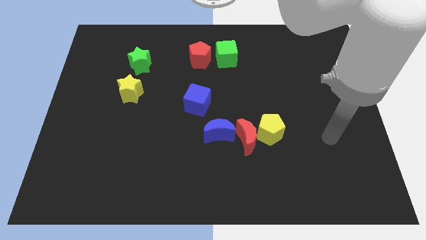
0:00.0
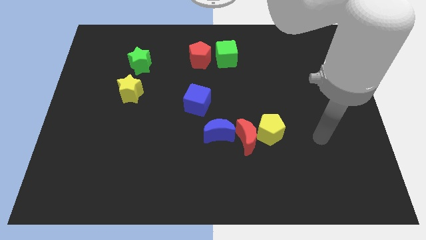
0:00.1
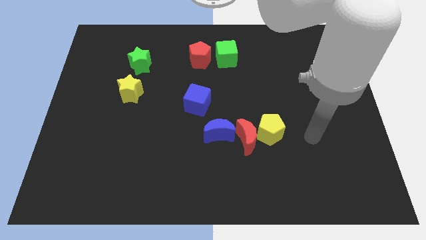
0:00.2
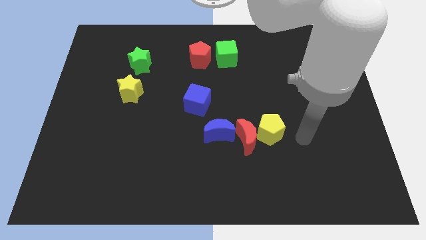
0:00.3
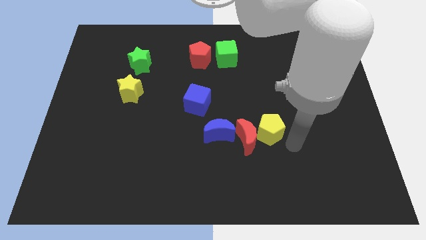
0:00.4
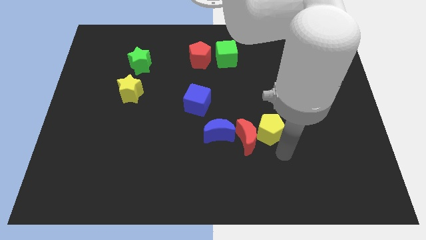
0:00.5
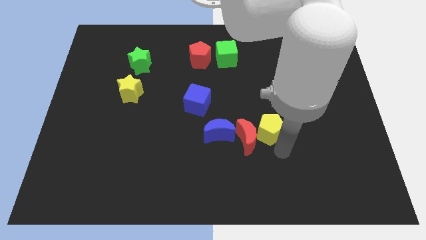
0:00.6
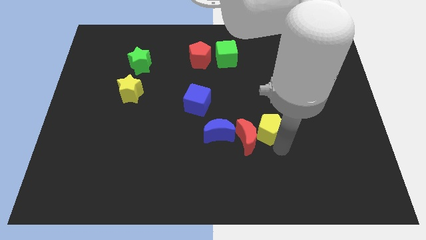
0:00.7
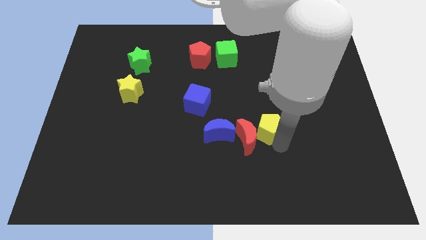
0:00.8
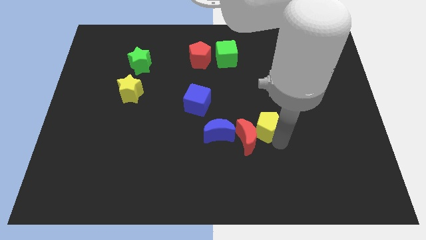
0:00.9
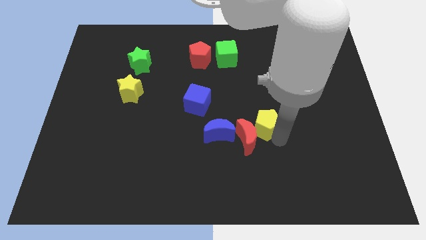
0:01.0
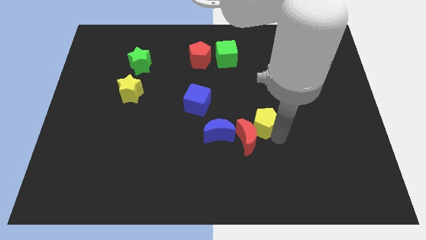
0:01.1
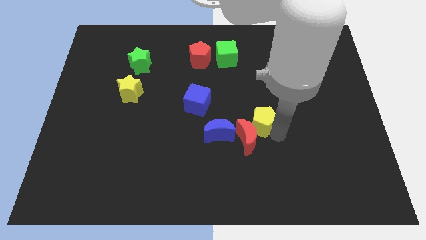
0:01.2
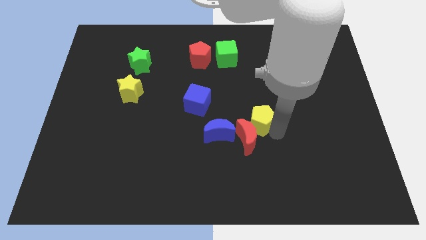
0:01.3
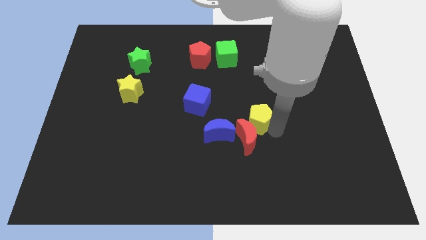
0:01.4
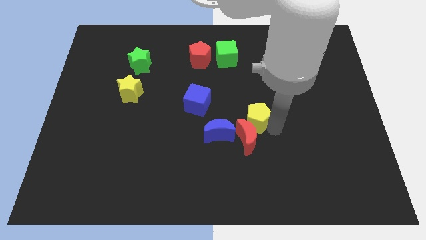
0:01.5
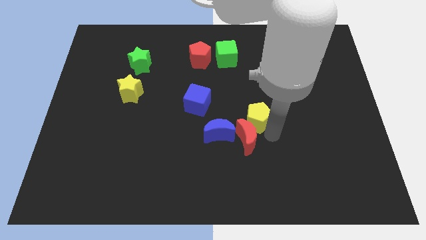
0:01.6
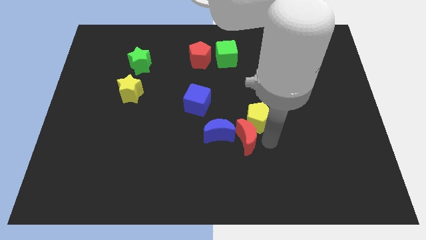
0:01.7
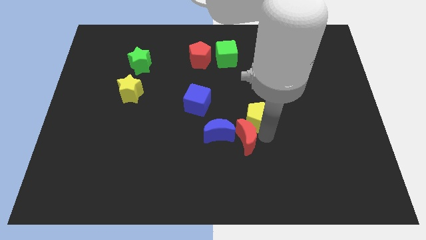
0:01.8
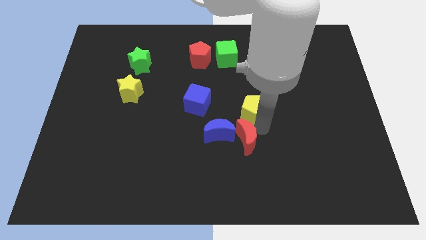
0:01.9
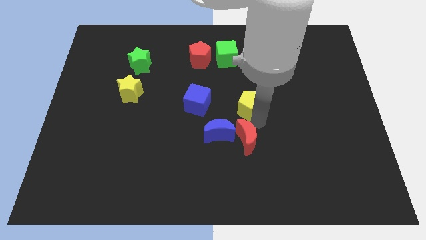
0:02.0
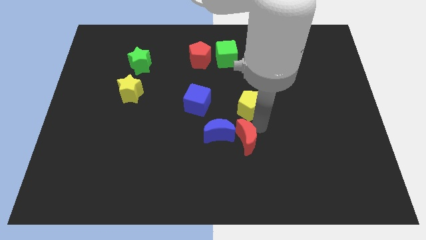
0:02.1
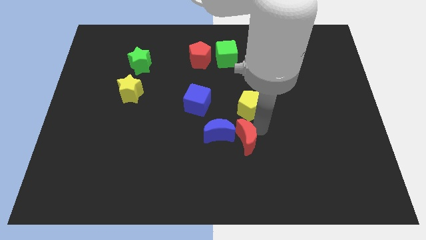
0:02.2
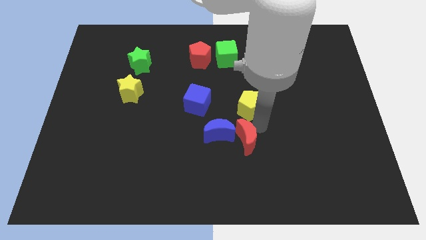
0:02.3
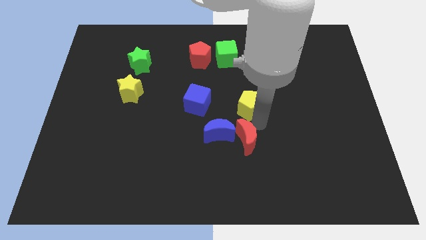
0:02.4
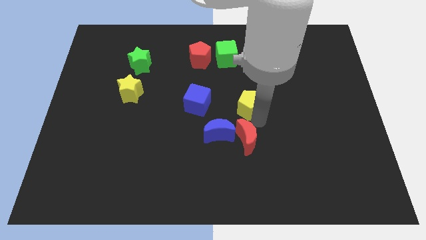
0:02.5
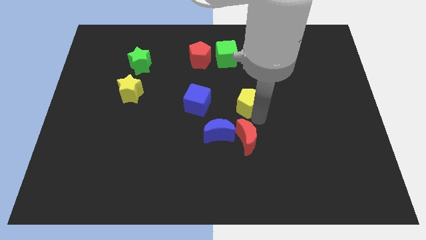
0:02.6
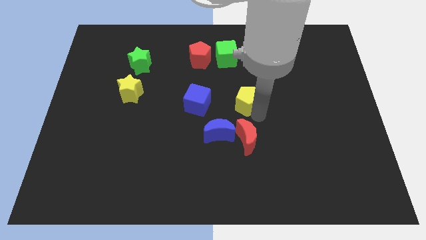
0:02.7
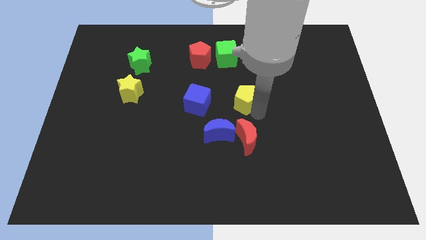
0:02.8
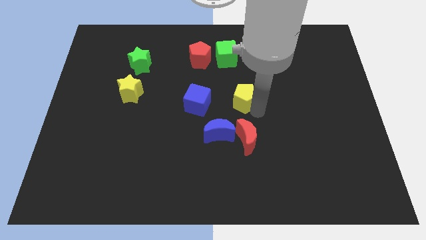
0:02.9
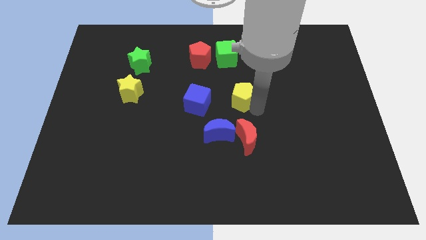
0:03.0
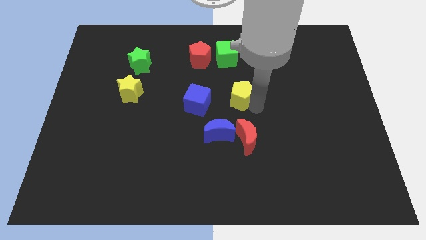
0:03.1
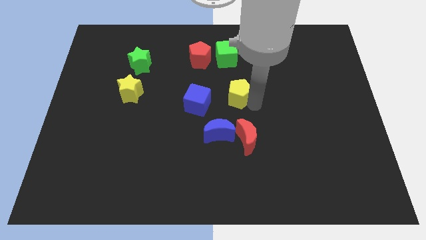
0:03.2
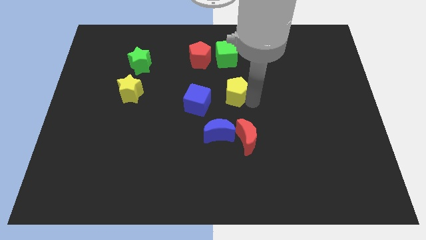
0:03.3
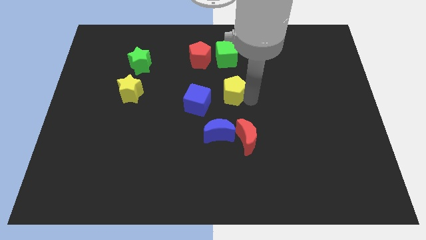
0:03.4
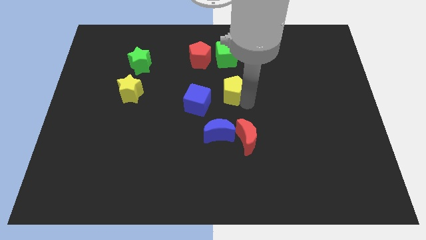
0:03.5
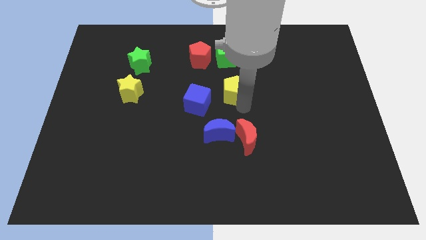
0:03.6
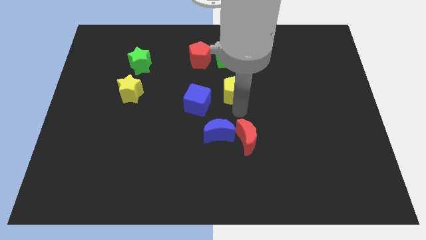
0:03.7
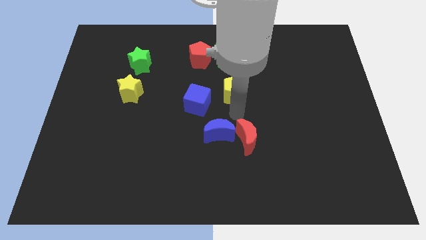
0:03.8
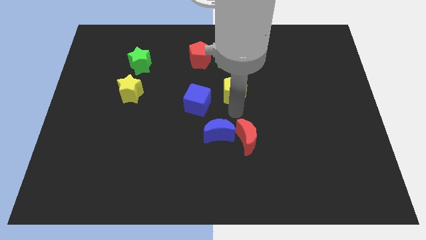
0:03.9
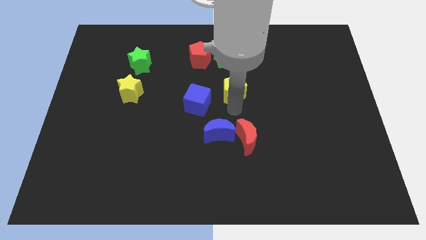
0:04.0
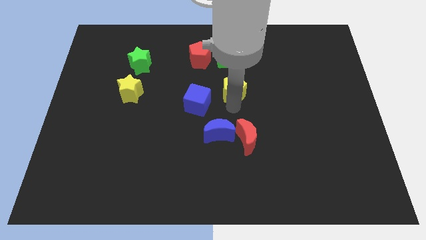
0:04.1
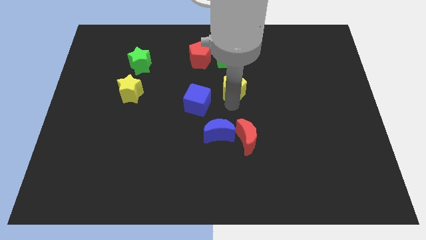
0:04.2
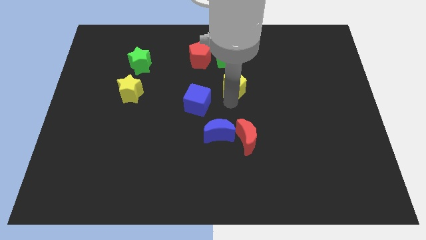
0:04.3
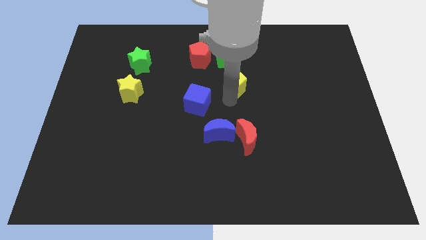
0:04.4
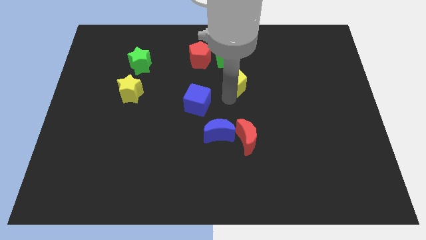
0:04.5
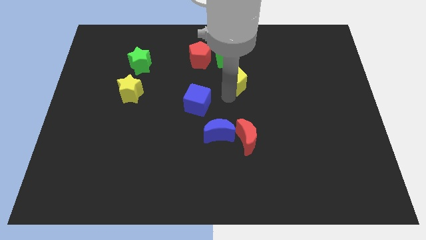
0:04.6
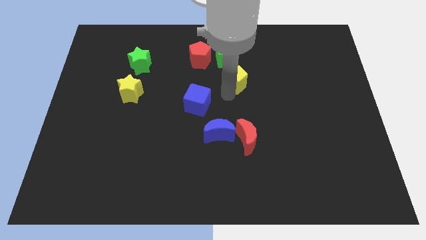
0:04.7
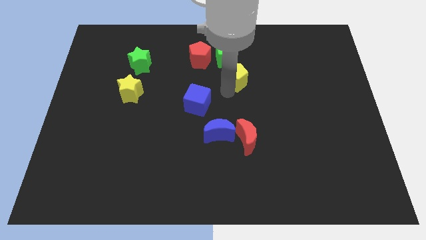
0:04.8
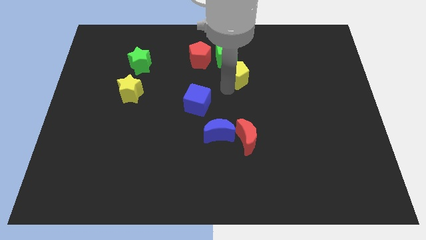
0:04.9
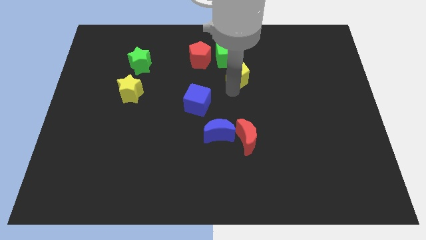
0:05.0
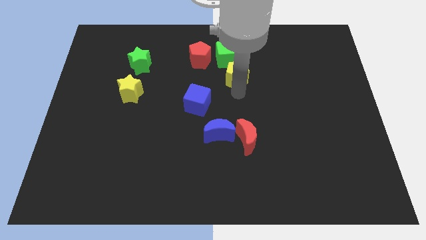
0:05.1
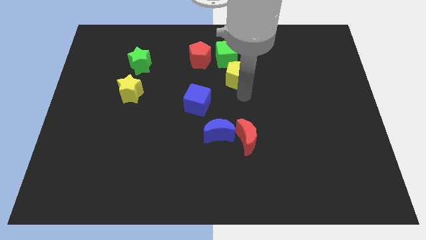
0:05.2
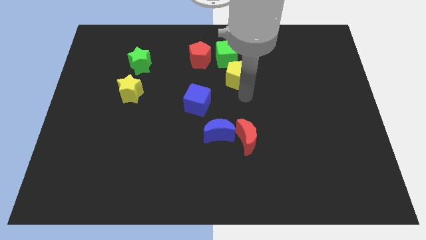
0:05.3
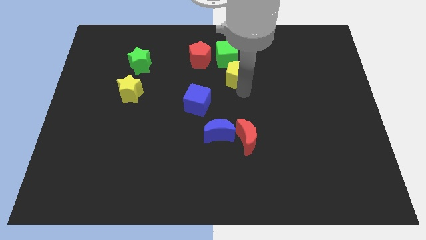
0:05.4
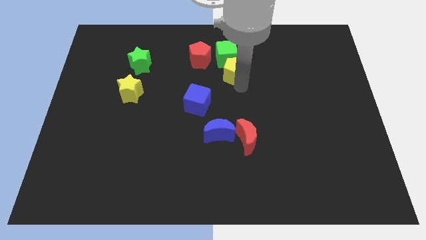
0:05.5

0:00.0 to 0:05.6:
push the yellow pentagon close to the green cube

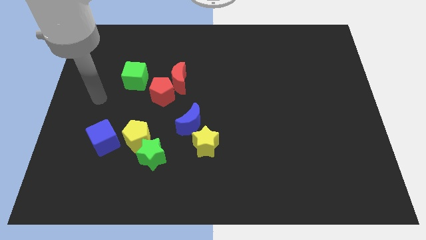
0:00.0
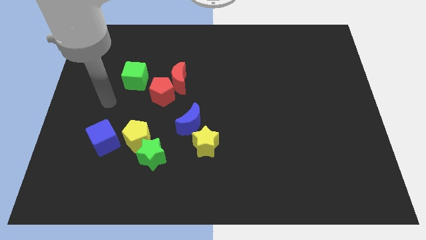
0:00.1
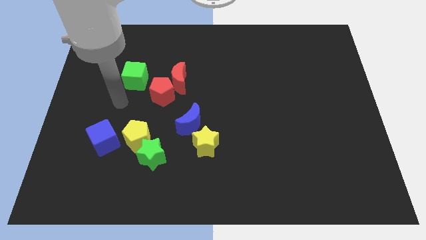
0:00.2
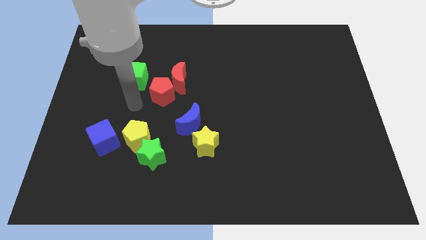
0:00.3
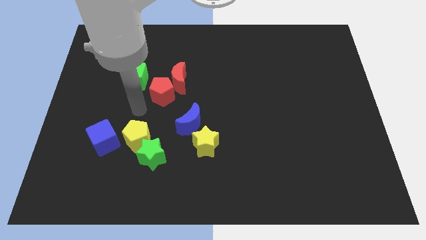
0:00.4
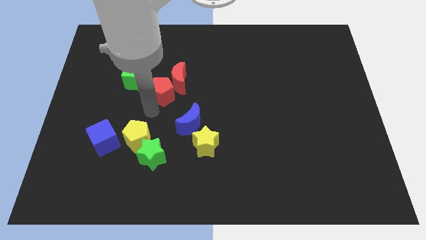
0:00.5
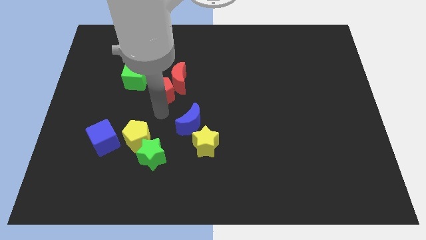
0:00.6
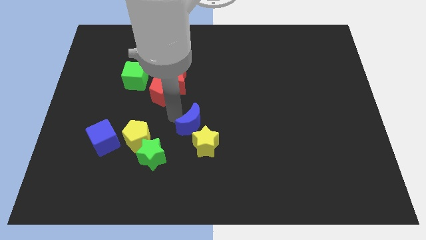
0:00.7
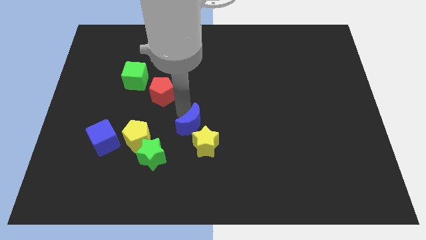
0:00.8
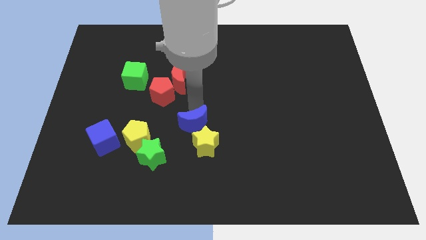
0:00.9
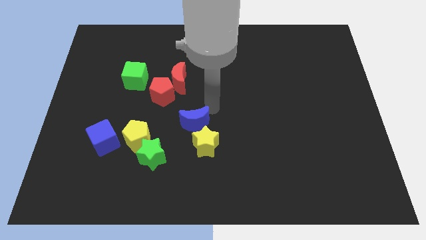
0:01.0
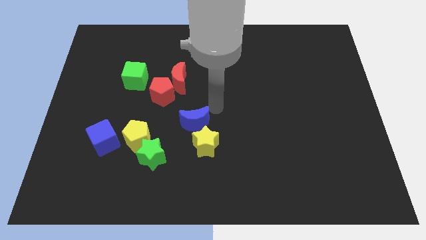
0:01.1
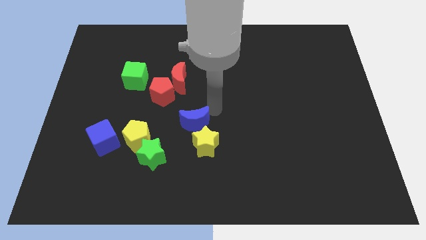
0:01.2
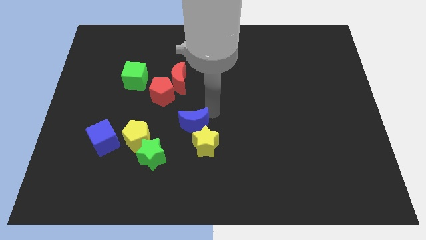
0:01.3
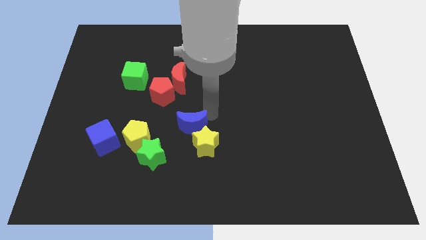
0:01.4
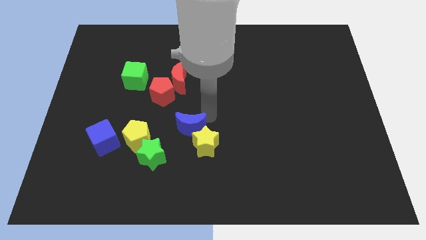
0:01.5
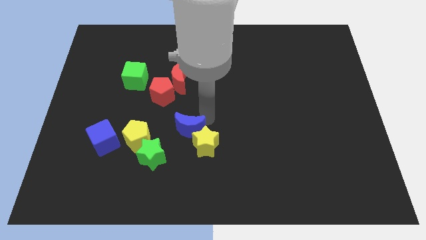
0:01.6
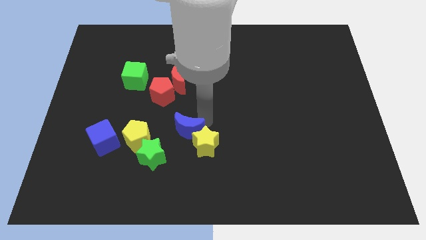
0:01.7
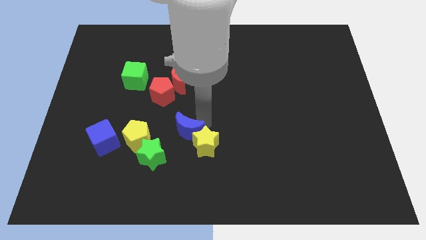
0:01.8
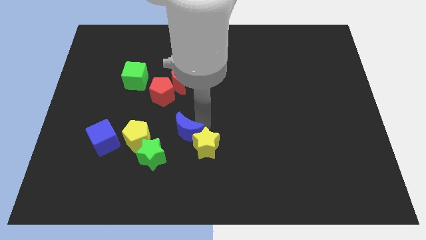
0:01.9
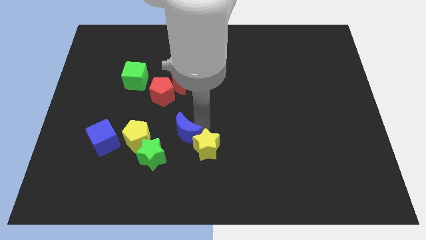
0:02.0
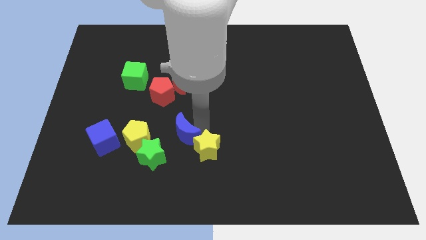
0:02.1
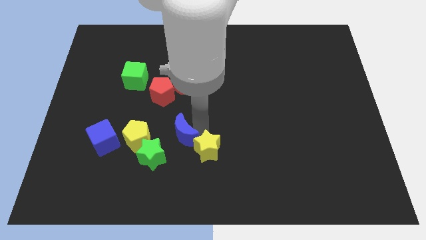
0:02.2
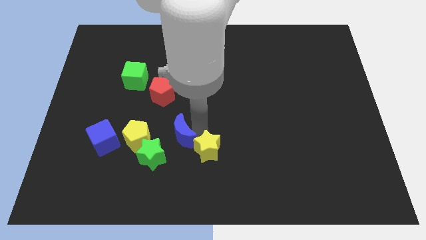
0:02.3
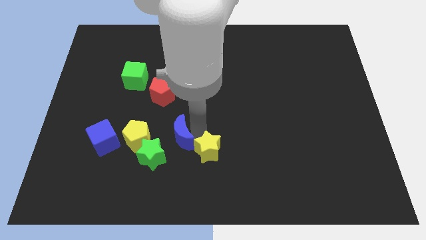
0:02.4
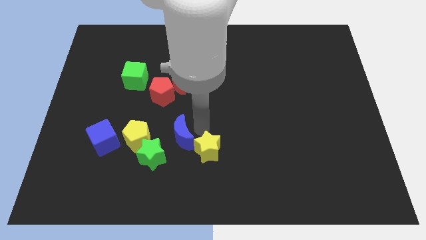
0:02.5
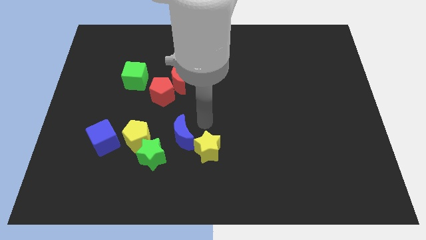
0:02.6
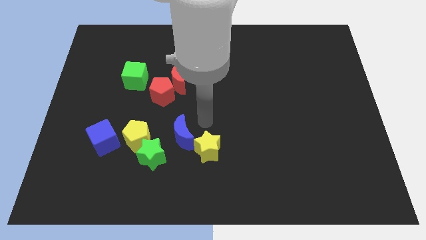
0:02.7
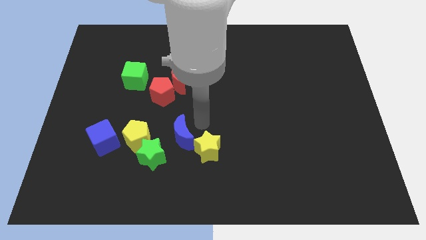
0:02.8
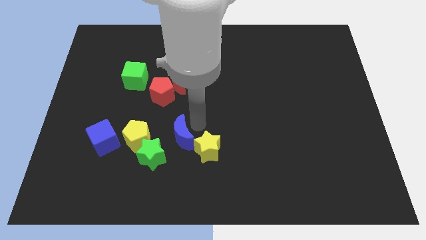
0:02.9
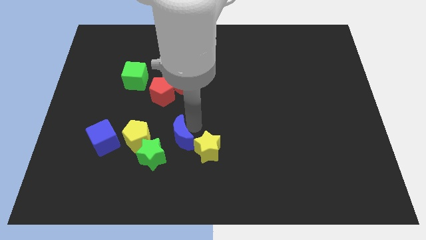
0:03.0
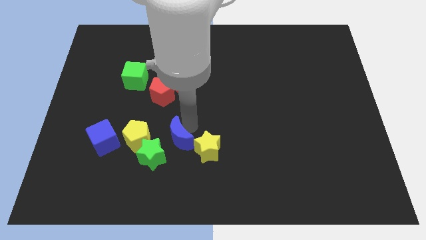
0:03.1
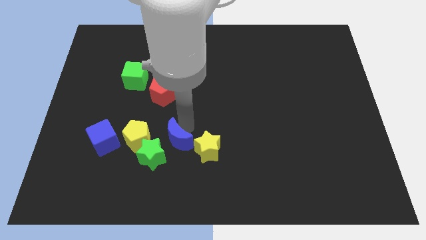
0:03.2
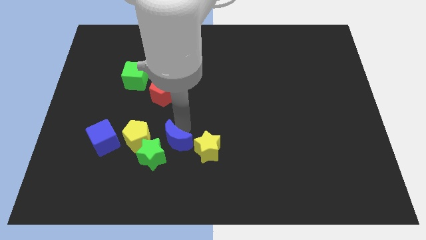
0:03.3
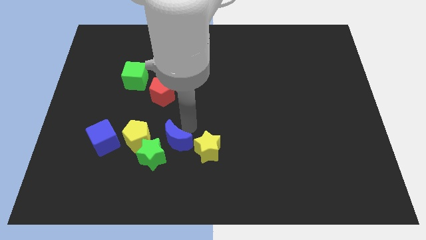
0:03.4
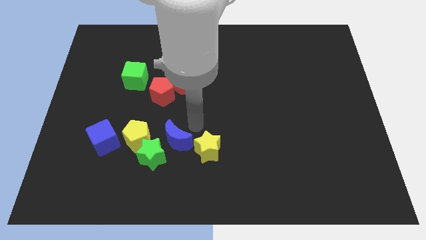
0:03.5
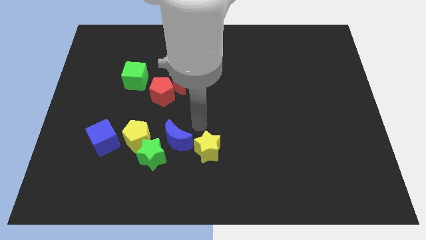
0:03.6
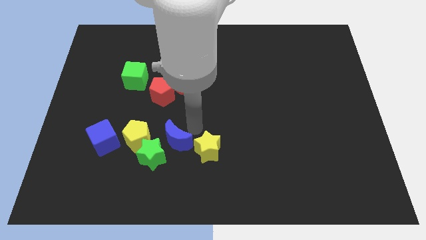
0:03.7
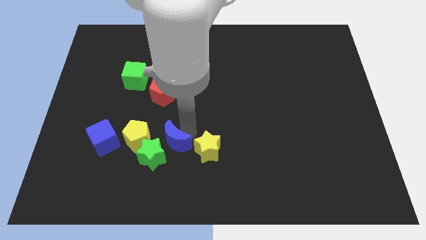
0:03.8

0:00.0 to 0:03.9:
push the blue moon close to the green star
